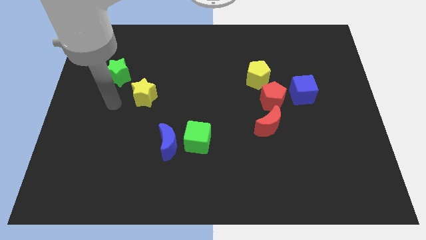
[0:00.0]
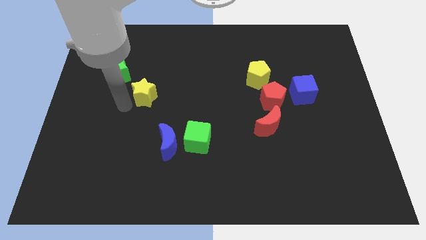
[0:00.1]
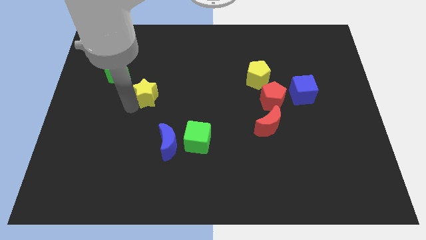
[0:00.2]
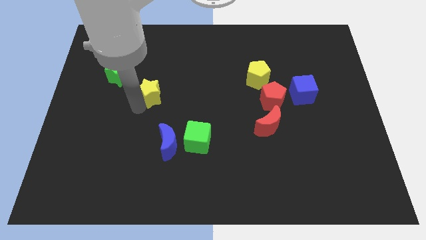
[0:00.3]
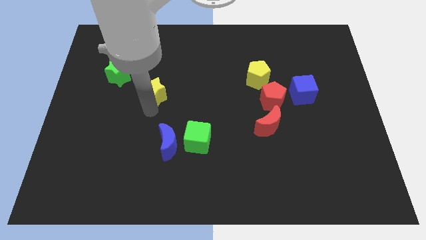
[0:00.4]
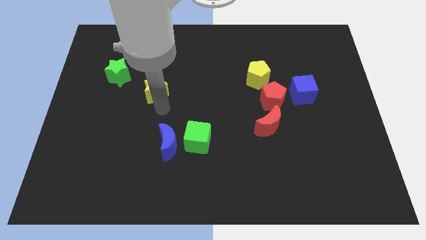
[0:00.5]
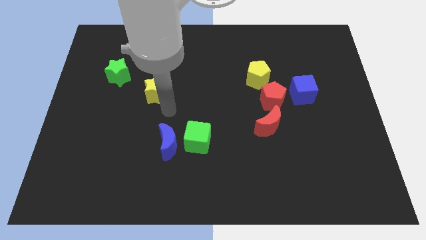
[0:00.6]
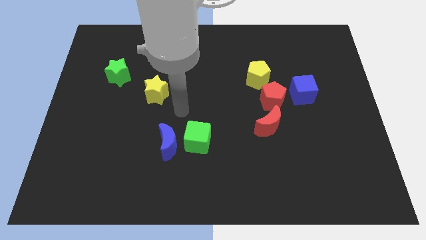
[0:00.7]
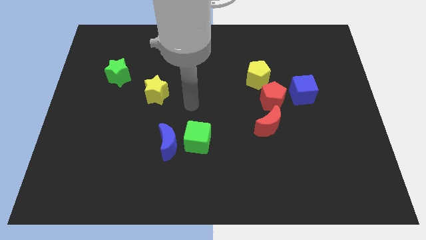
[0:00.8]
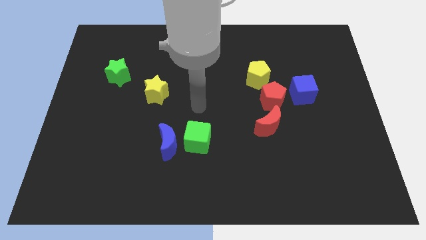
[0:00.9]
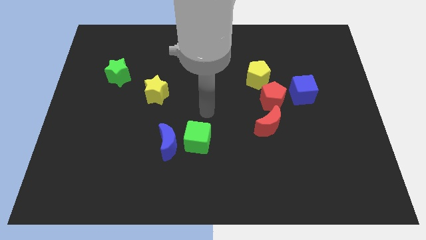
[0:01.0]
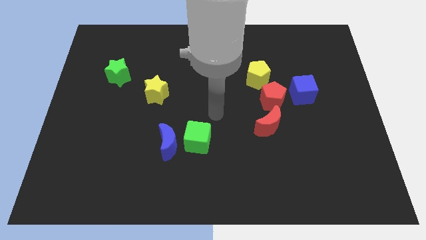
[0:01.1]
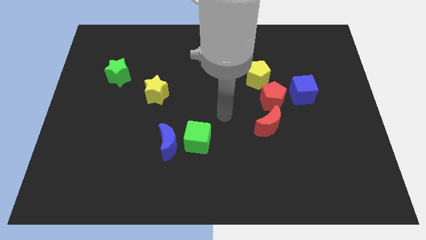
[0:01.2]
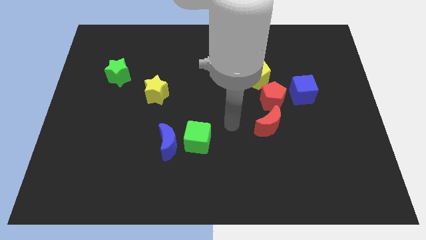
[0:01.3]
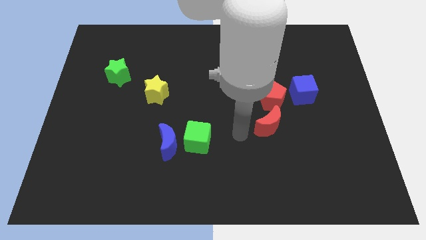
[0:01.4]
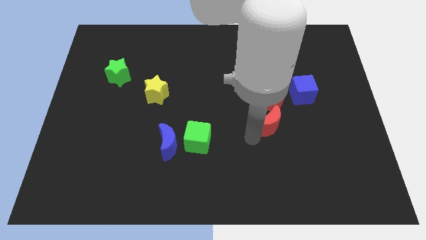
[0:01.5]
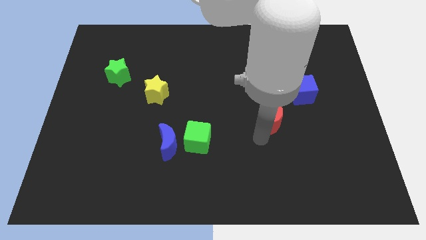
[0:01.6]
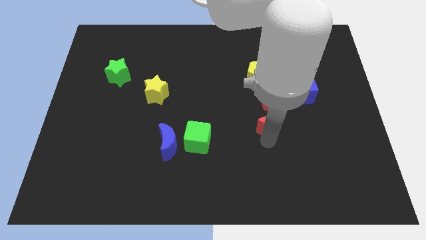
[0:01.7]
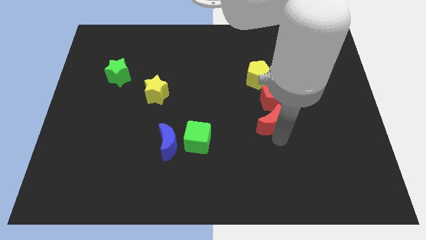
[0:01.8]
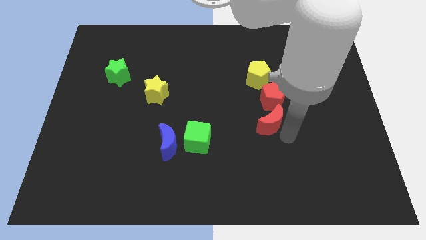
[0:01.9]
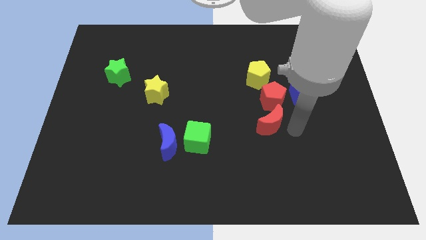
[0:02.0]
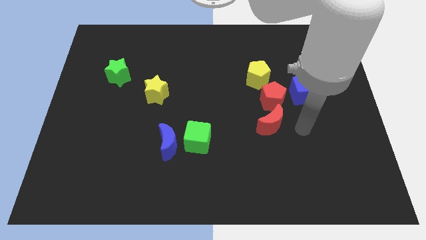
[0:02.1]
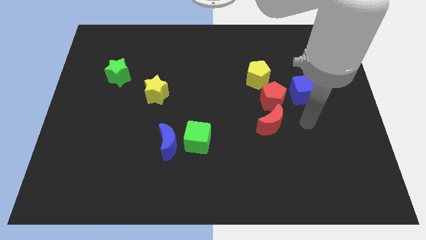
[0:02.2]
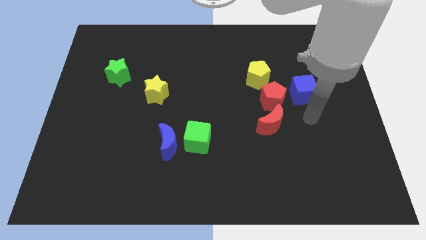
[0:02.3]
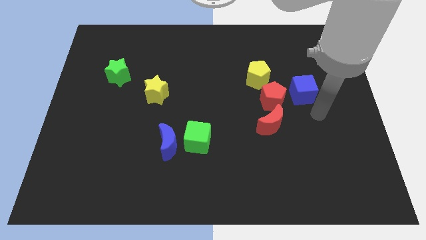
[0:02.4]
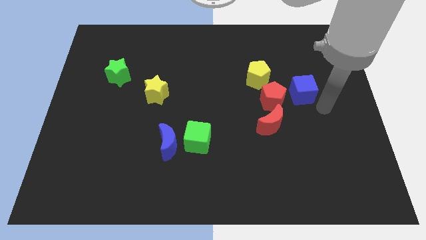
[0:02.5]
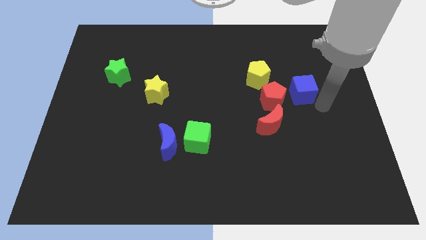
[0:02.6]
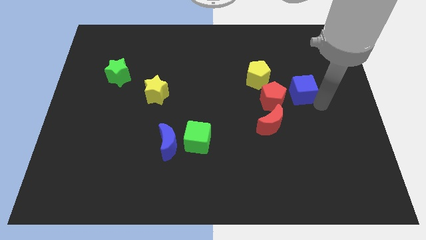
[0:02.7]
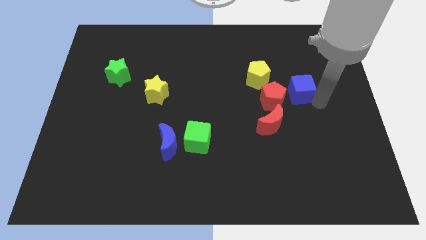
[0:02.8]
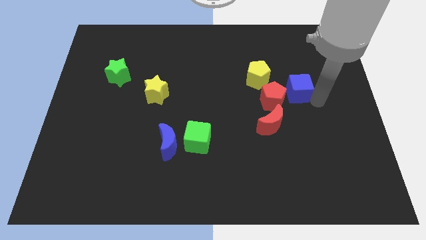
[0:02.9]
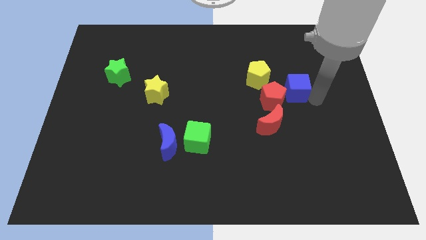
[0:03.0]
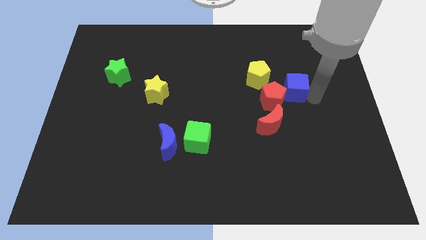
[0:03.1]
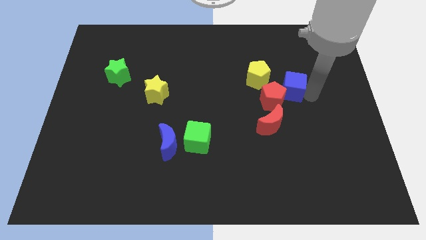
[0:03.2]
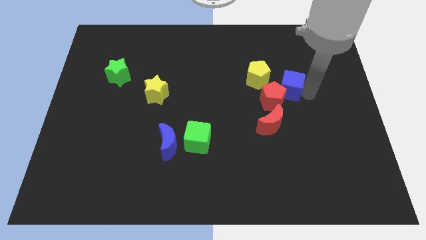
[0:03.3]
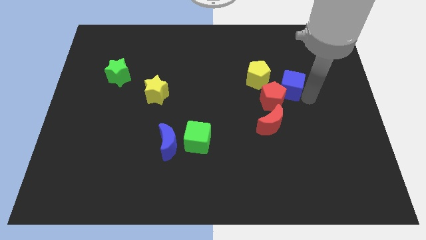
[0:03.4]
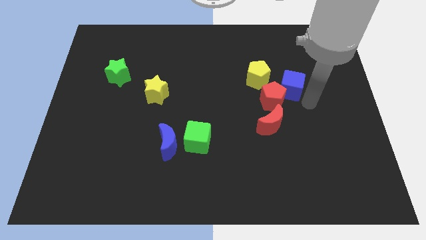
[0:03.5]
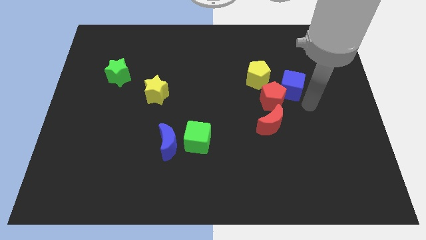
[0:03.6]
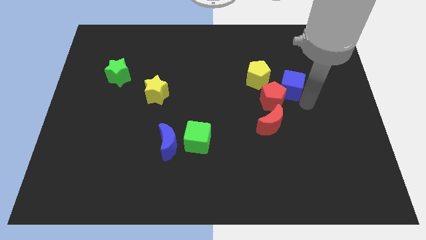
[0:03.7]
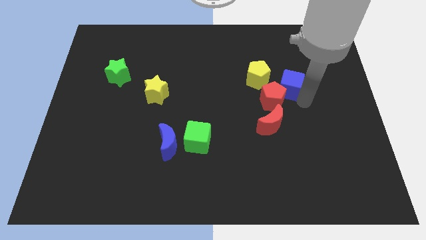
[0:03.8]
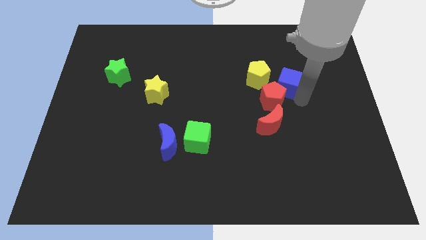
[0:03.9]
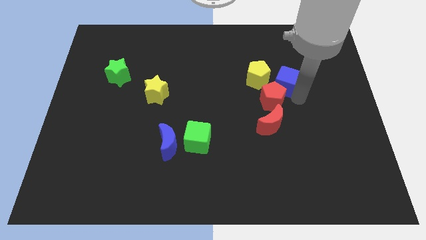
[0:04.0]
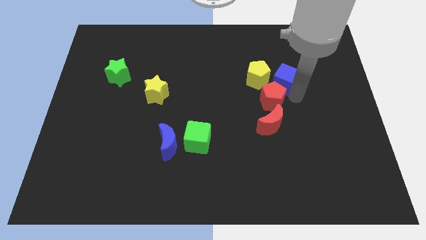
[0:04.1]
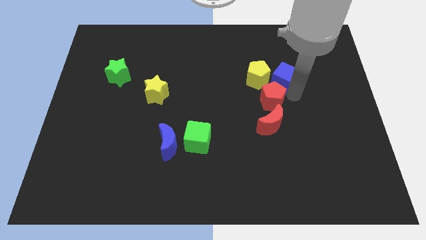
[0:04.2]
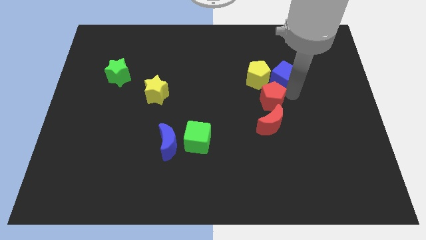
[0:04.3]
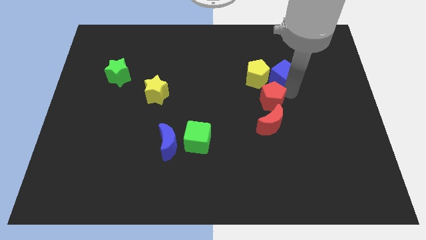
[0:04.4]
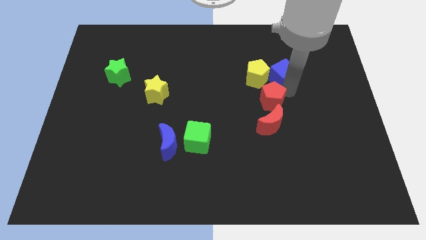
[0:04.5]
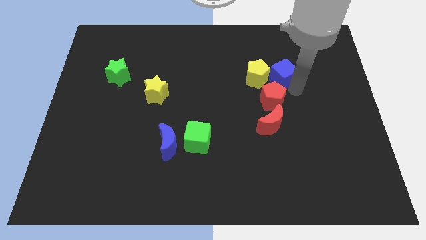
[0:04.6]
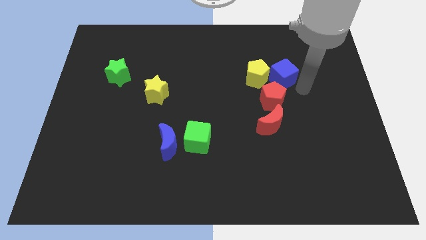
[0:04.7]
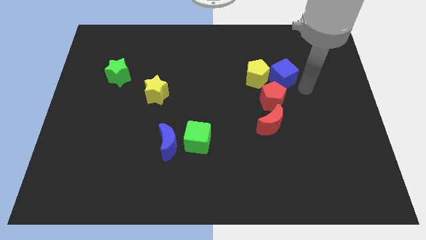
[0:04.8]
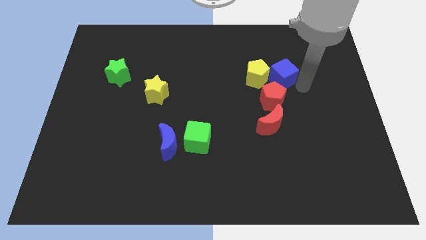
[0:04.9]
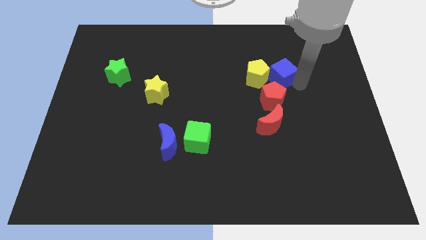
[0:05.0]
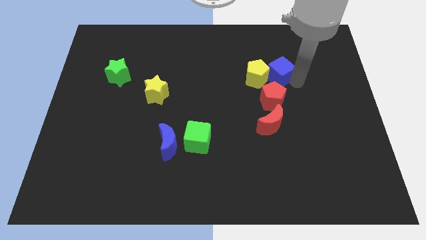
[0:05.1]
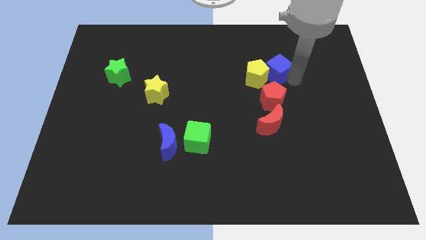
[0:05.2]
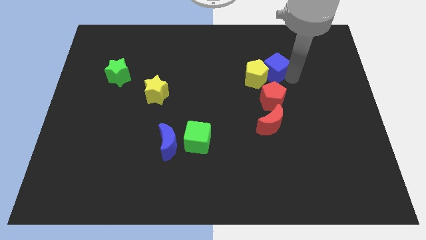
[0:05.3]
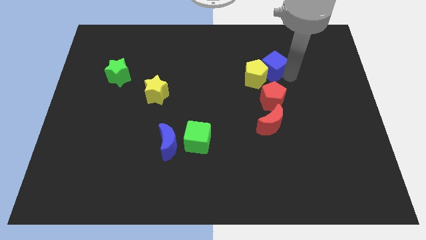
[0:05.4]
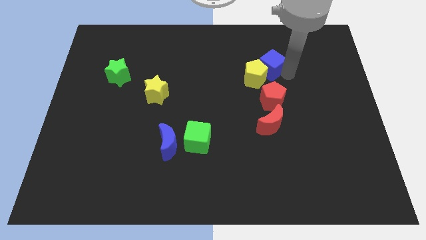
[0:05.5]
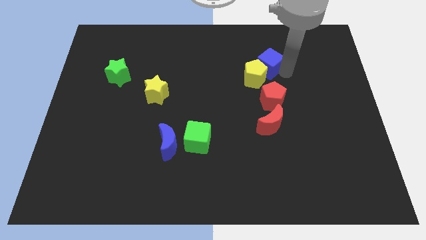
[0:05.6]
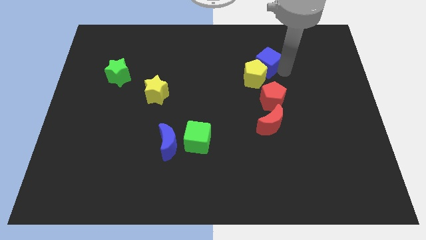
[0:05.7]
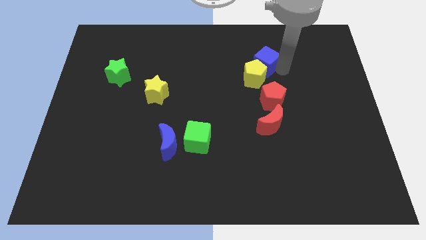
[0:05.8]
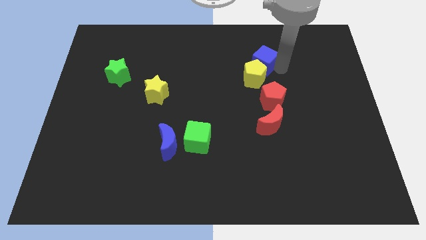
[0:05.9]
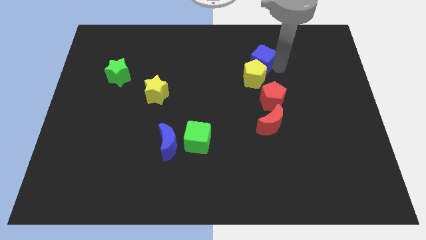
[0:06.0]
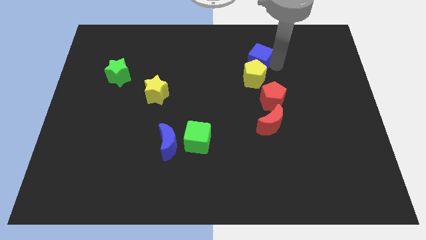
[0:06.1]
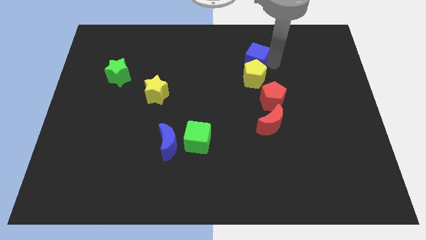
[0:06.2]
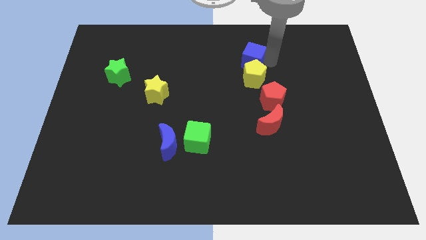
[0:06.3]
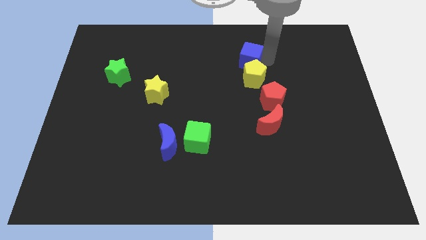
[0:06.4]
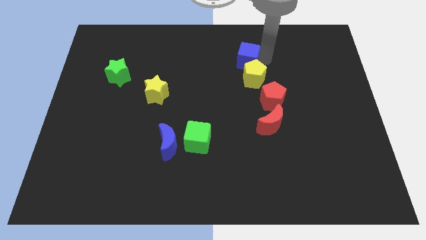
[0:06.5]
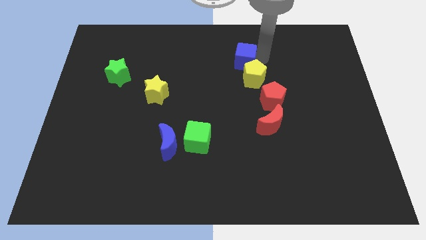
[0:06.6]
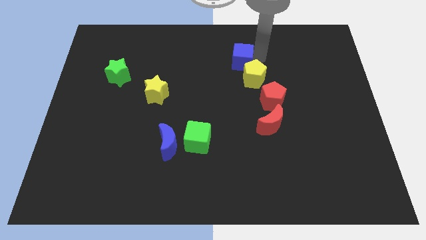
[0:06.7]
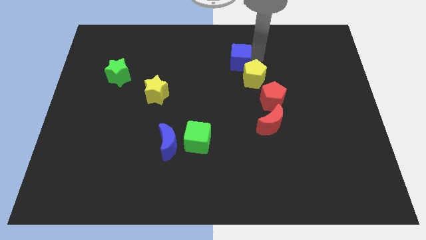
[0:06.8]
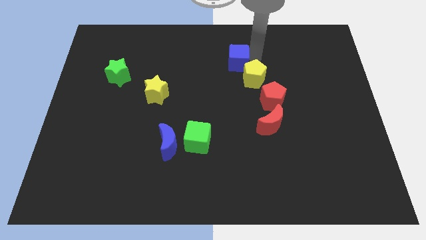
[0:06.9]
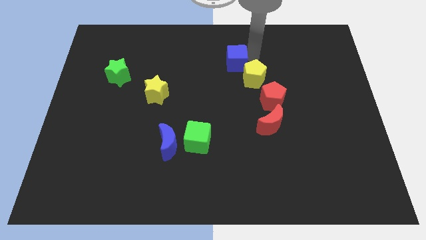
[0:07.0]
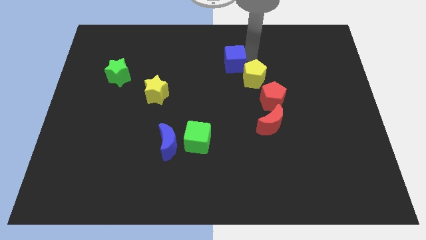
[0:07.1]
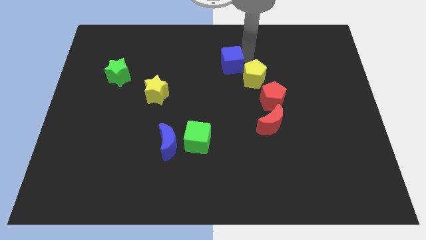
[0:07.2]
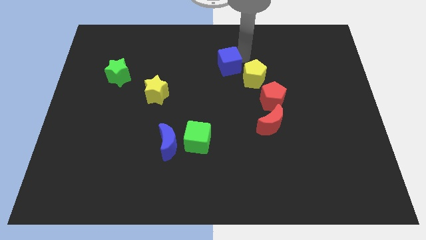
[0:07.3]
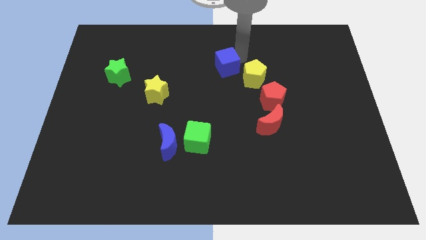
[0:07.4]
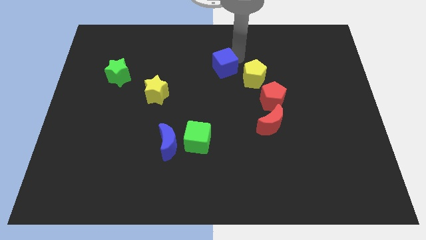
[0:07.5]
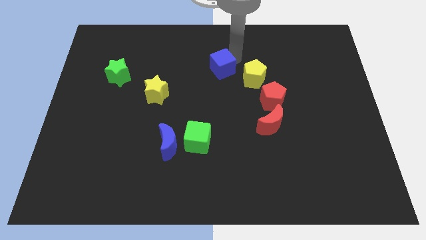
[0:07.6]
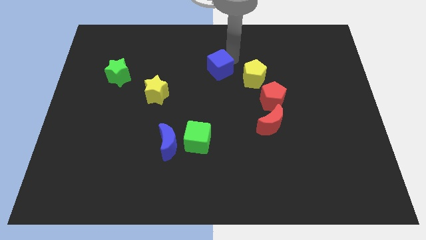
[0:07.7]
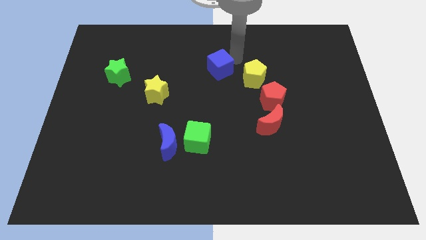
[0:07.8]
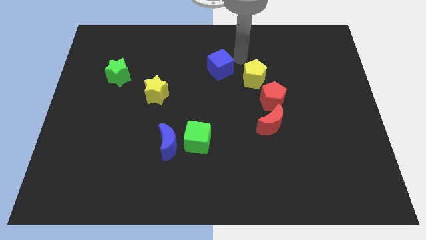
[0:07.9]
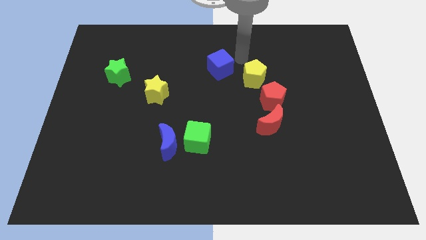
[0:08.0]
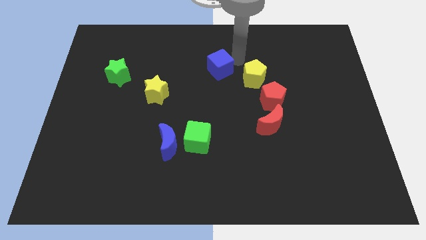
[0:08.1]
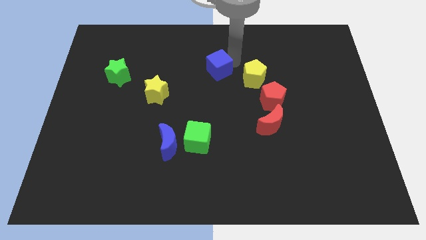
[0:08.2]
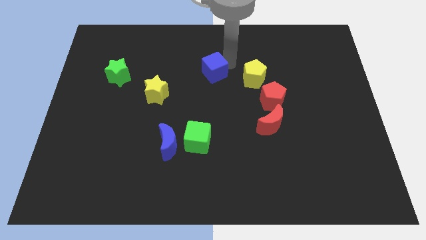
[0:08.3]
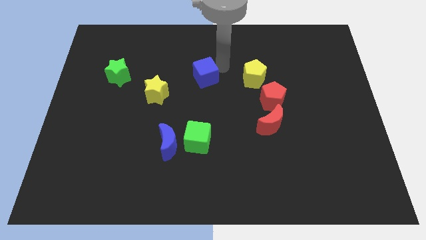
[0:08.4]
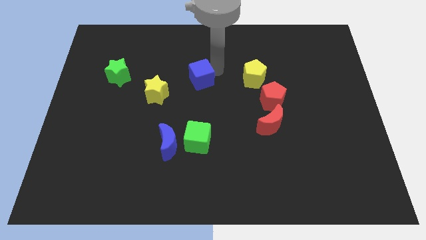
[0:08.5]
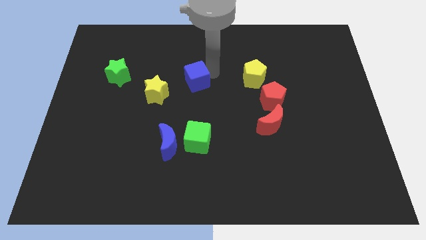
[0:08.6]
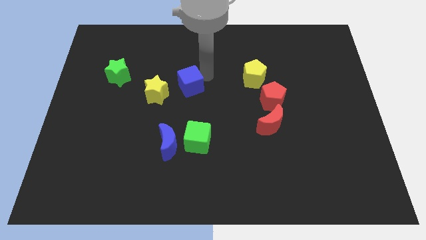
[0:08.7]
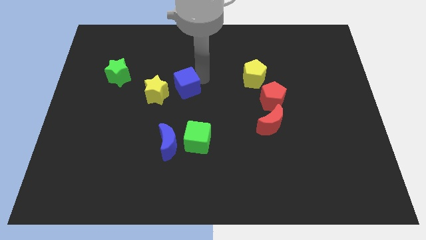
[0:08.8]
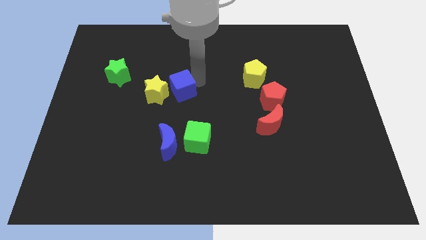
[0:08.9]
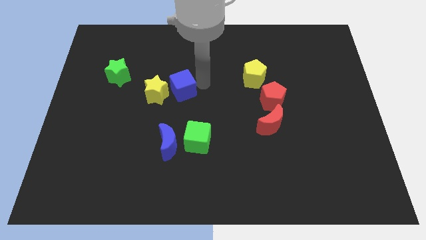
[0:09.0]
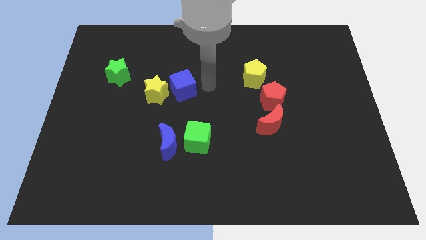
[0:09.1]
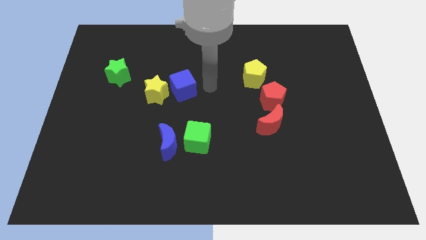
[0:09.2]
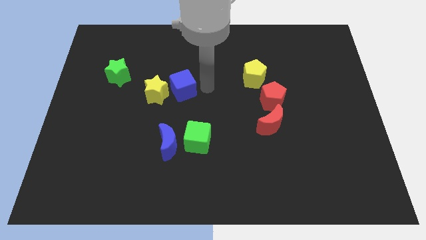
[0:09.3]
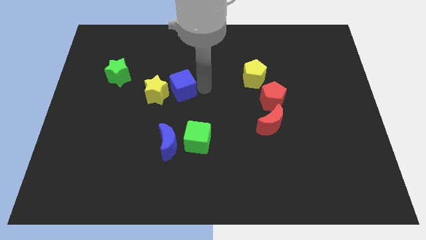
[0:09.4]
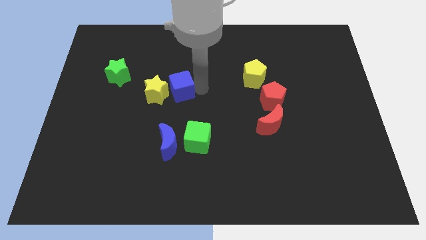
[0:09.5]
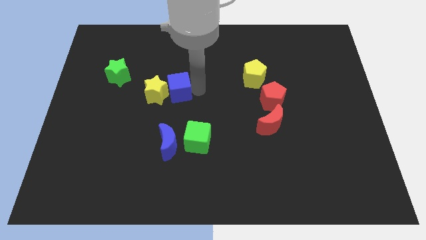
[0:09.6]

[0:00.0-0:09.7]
push the blue cube next to the yellow star
